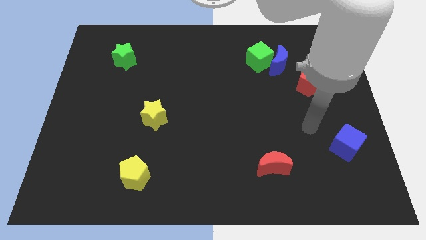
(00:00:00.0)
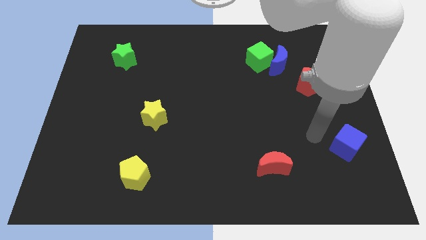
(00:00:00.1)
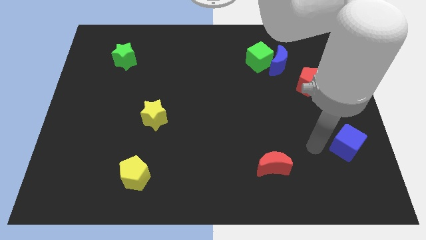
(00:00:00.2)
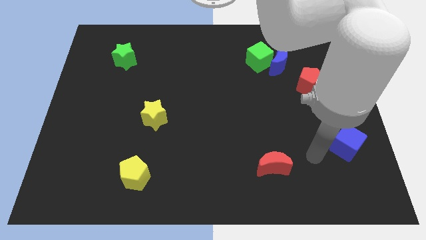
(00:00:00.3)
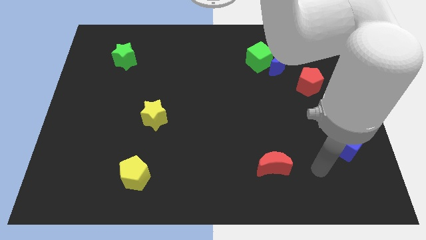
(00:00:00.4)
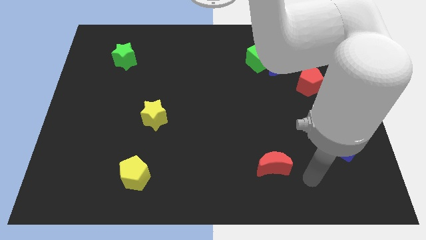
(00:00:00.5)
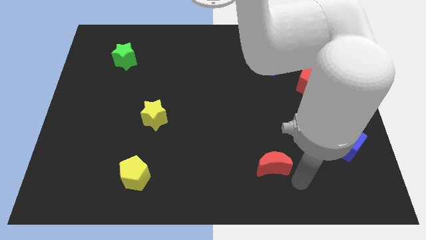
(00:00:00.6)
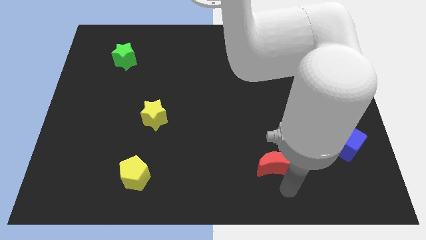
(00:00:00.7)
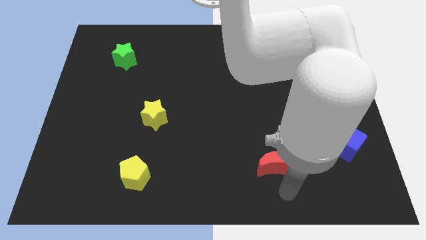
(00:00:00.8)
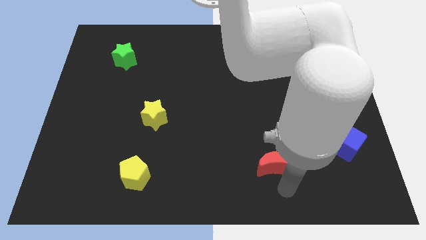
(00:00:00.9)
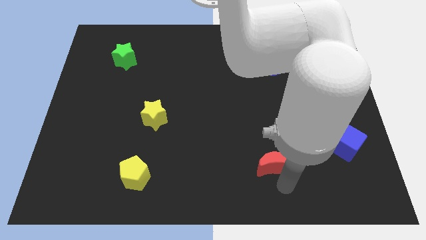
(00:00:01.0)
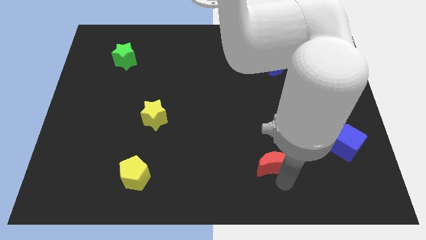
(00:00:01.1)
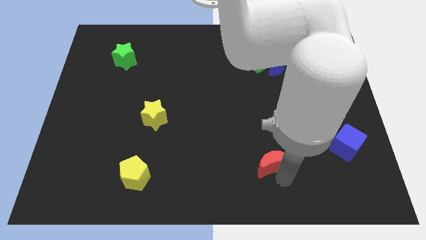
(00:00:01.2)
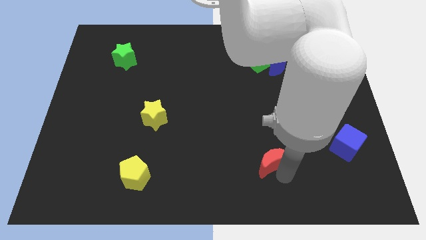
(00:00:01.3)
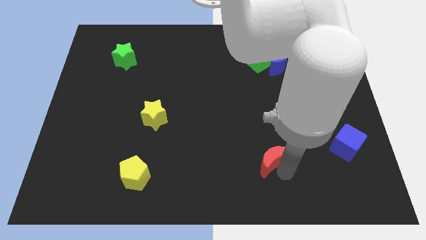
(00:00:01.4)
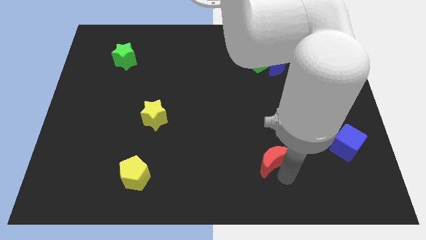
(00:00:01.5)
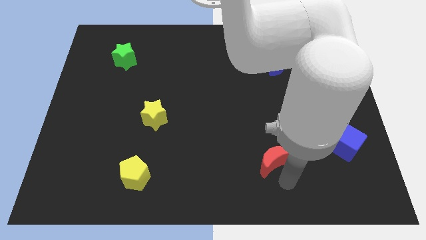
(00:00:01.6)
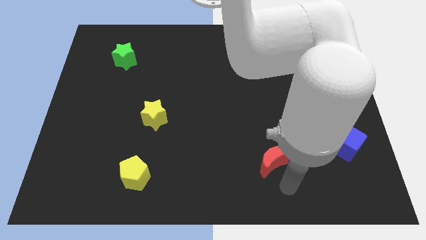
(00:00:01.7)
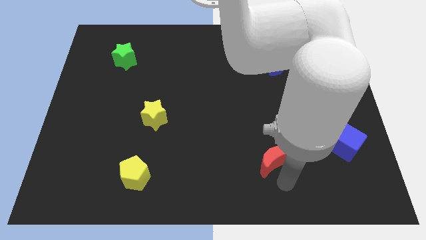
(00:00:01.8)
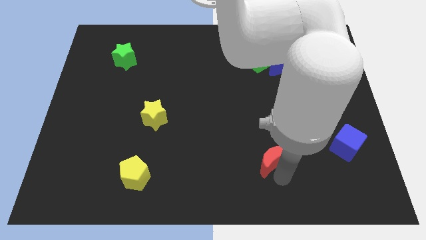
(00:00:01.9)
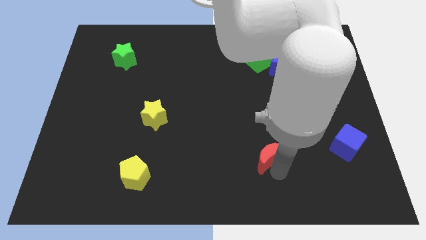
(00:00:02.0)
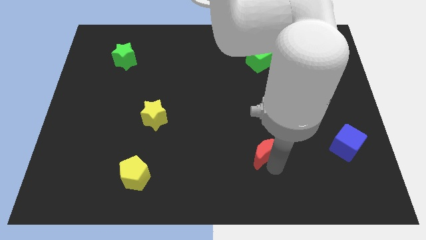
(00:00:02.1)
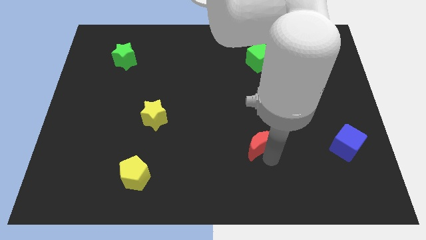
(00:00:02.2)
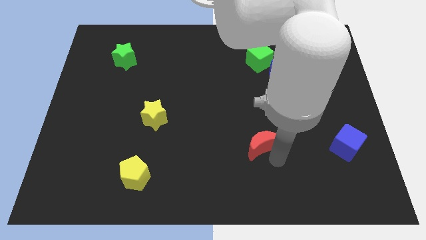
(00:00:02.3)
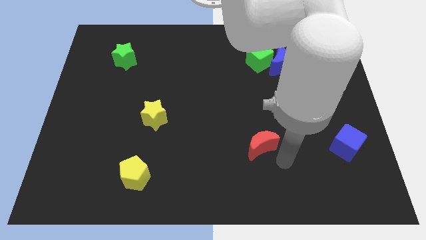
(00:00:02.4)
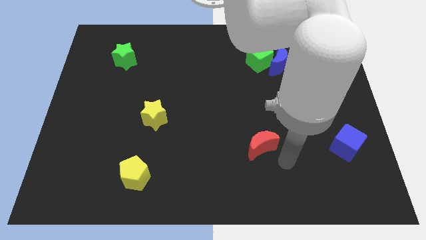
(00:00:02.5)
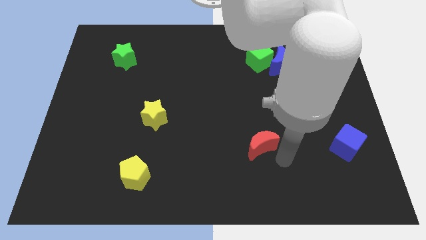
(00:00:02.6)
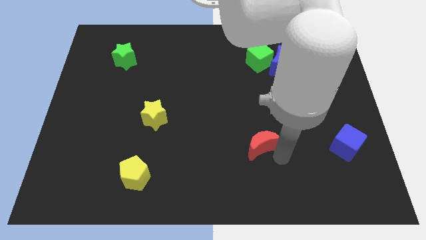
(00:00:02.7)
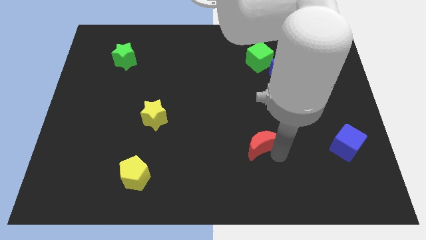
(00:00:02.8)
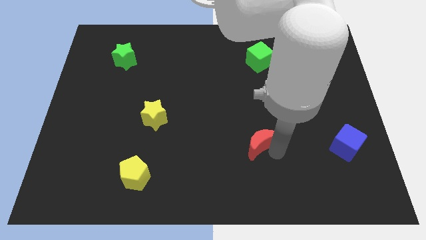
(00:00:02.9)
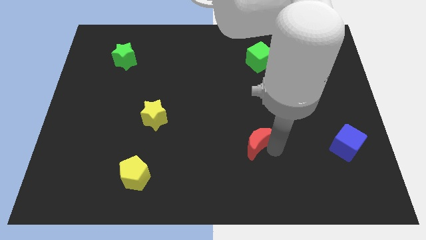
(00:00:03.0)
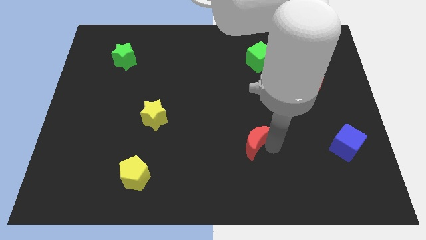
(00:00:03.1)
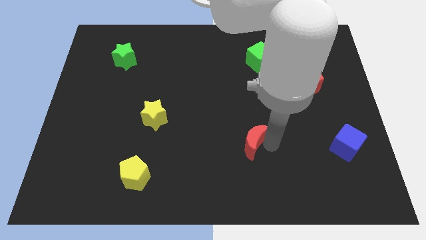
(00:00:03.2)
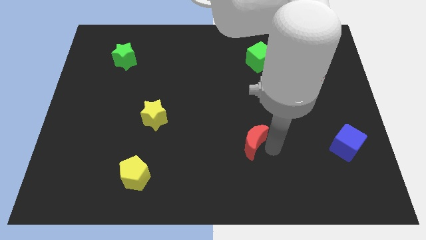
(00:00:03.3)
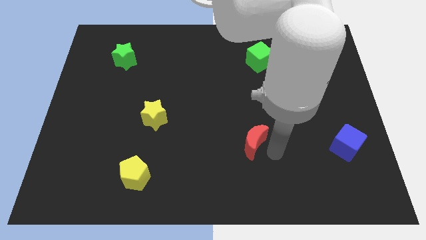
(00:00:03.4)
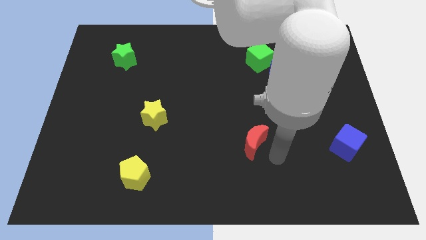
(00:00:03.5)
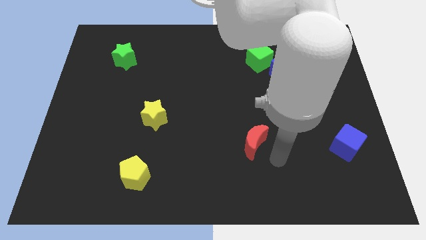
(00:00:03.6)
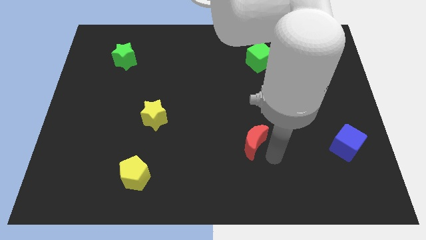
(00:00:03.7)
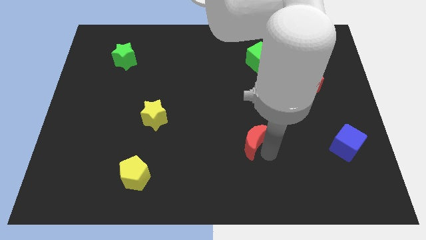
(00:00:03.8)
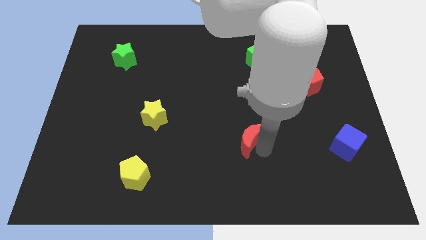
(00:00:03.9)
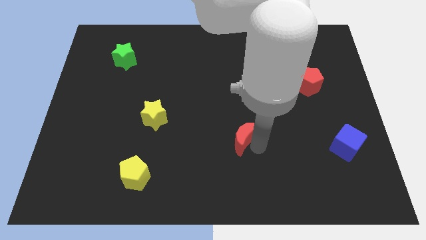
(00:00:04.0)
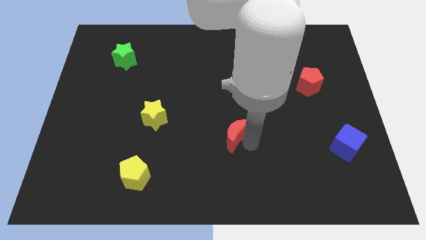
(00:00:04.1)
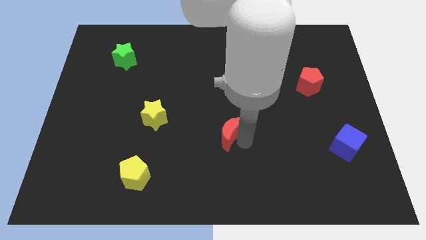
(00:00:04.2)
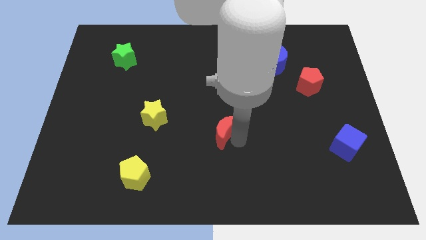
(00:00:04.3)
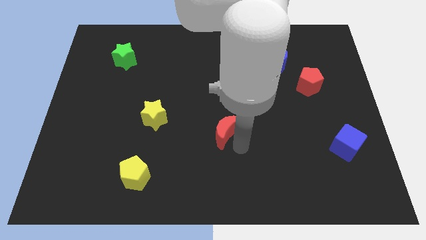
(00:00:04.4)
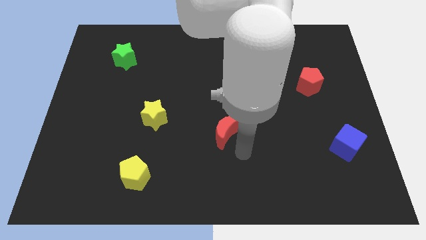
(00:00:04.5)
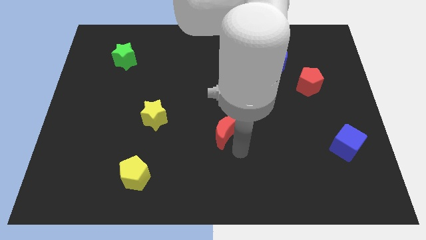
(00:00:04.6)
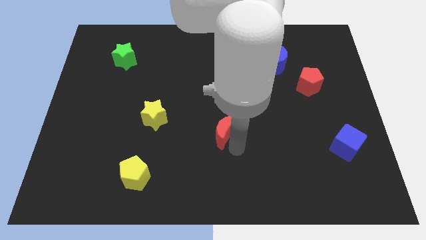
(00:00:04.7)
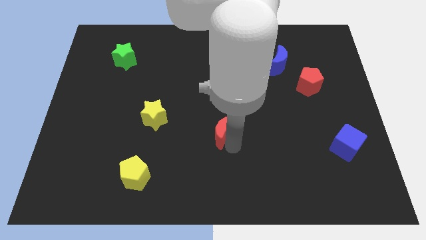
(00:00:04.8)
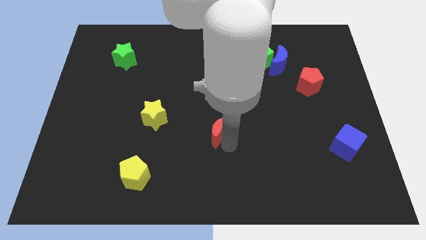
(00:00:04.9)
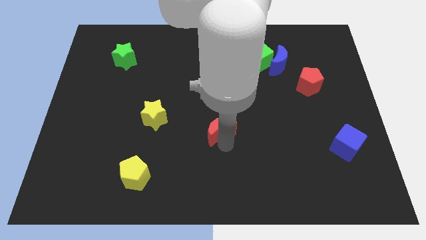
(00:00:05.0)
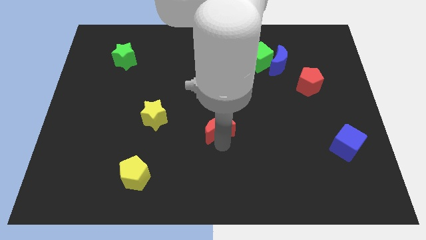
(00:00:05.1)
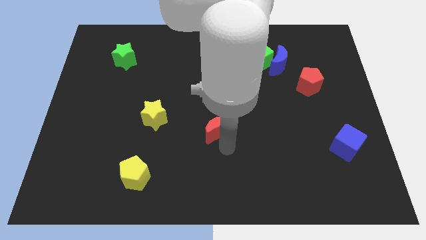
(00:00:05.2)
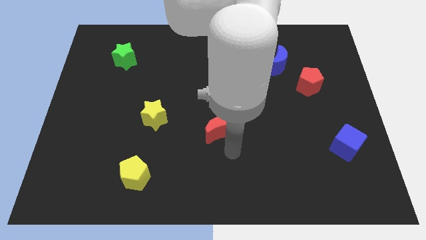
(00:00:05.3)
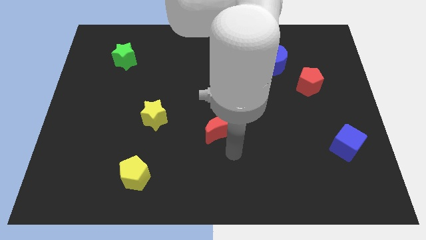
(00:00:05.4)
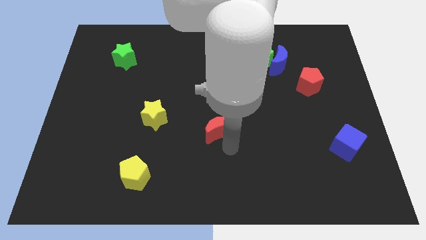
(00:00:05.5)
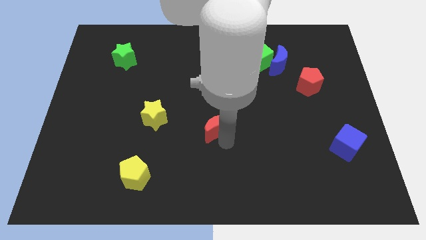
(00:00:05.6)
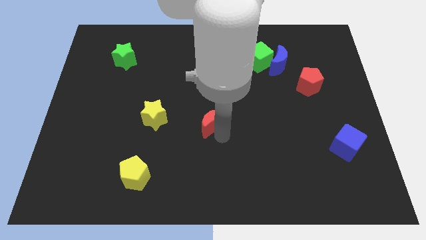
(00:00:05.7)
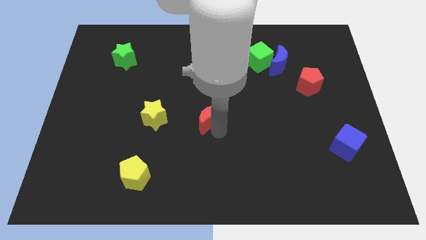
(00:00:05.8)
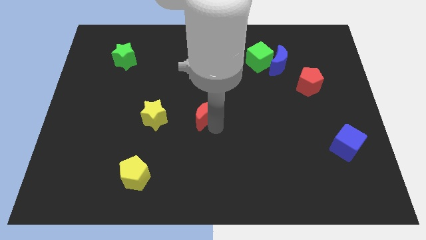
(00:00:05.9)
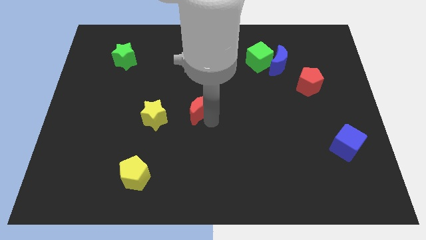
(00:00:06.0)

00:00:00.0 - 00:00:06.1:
move the red moon upwards and left diagonally

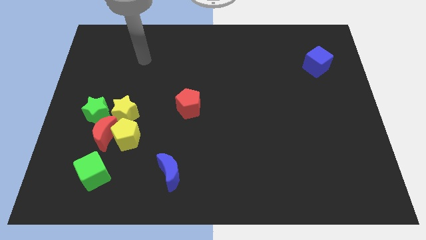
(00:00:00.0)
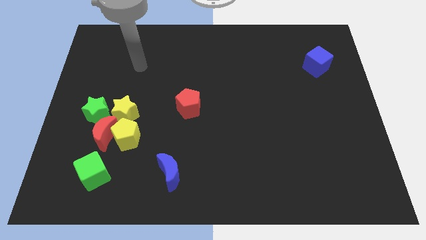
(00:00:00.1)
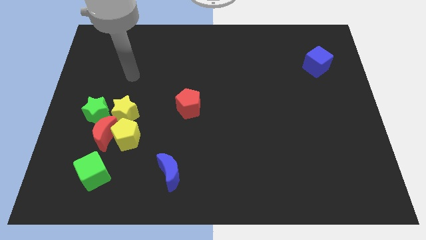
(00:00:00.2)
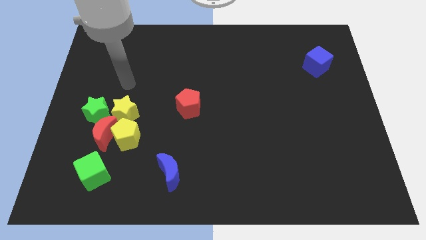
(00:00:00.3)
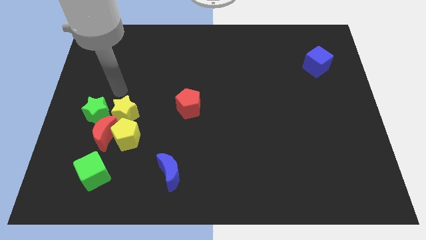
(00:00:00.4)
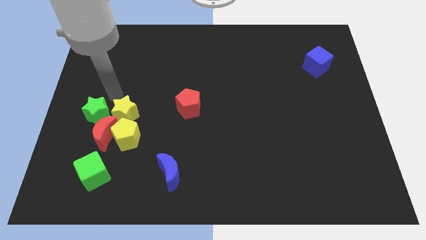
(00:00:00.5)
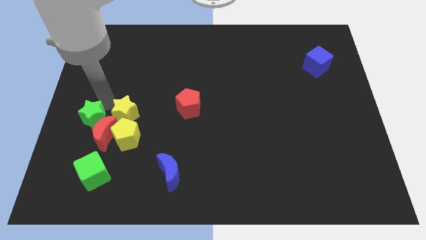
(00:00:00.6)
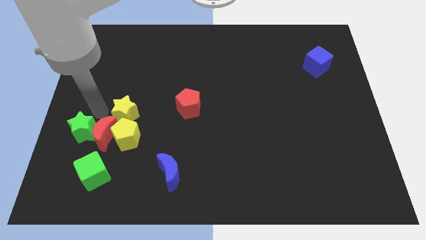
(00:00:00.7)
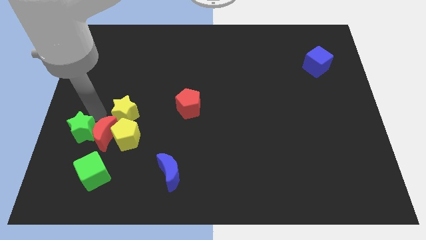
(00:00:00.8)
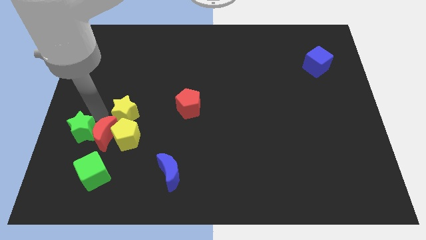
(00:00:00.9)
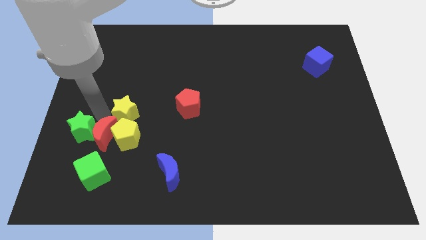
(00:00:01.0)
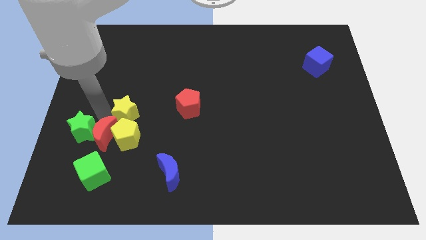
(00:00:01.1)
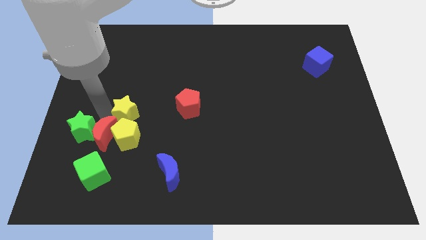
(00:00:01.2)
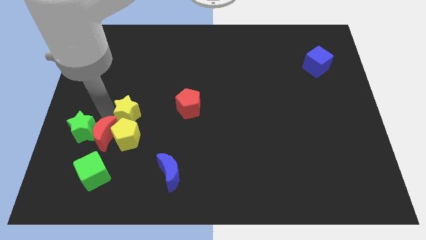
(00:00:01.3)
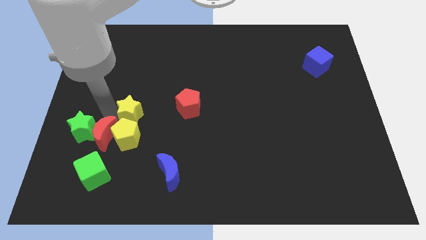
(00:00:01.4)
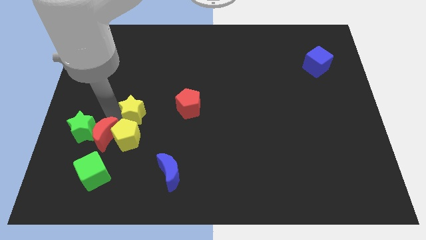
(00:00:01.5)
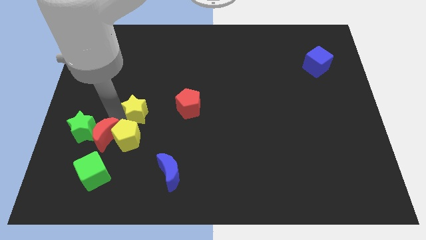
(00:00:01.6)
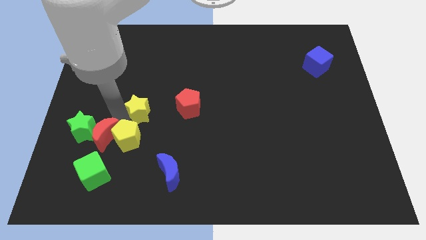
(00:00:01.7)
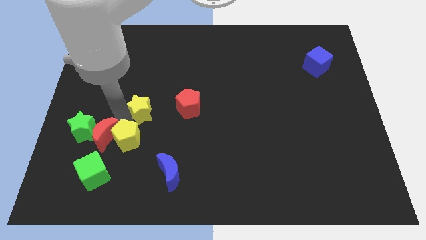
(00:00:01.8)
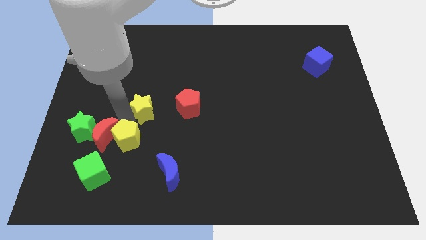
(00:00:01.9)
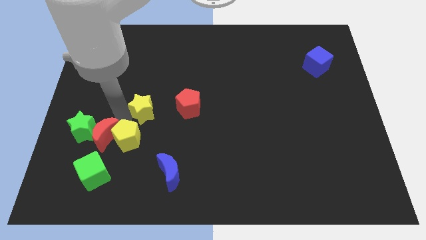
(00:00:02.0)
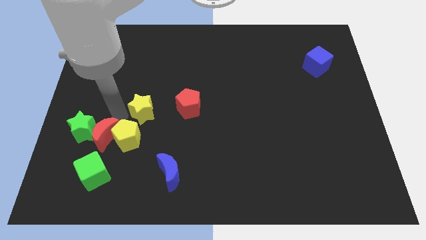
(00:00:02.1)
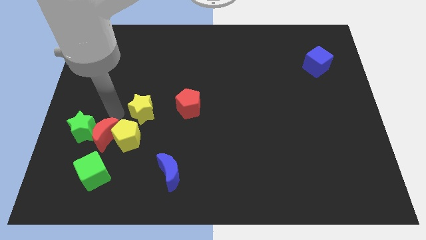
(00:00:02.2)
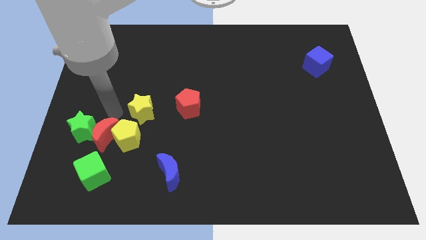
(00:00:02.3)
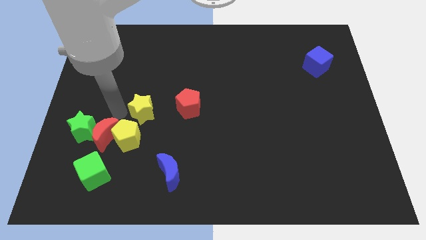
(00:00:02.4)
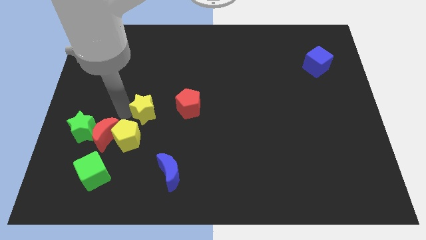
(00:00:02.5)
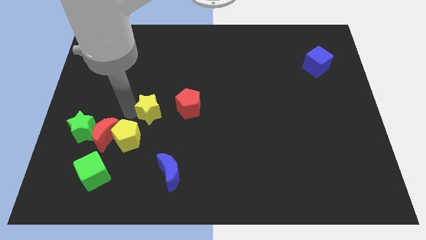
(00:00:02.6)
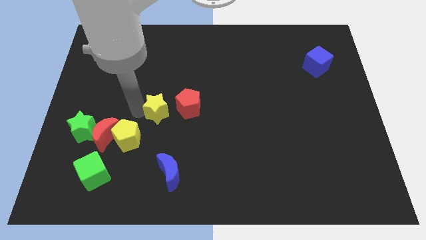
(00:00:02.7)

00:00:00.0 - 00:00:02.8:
slide the yellow star right slightly
